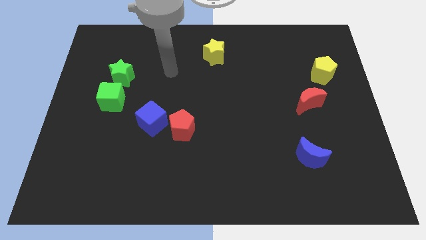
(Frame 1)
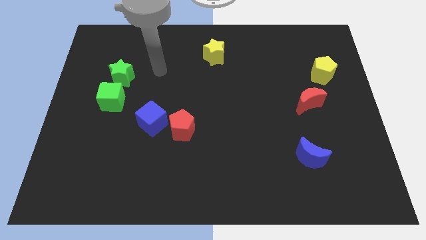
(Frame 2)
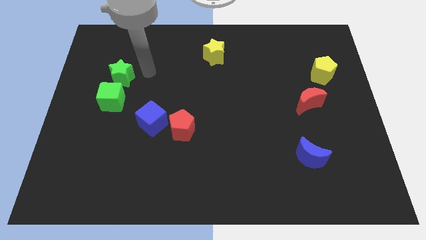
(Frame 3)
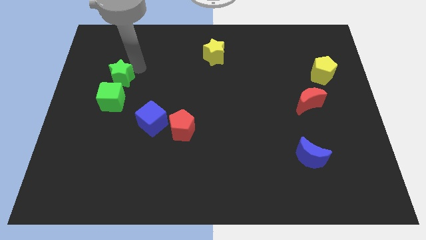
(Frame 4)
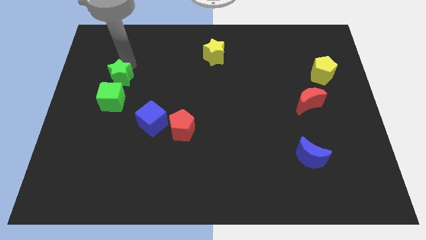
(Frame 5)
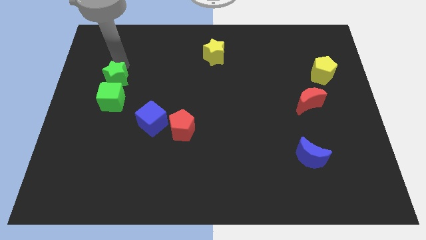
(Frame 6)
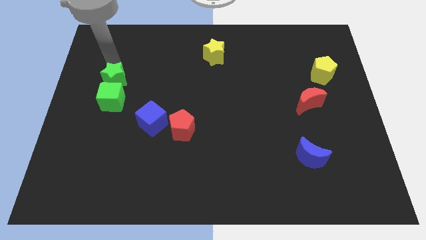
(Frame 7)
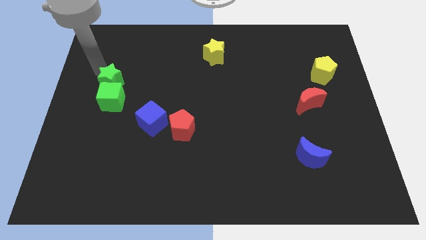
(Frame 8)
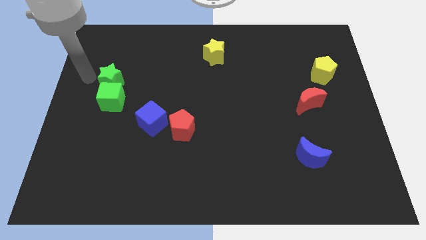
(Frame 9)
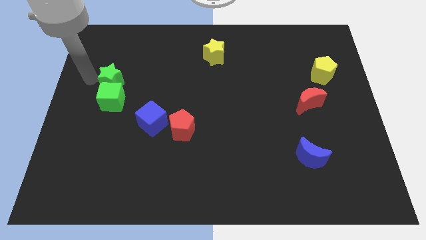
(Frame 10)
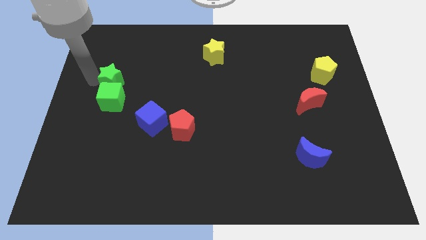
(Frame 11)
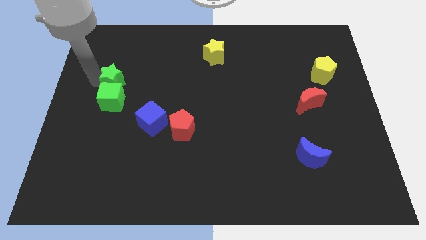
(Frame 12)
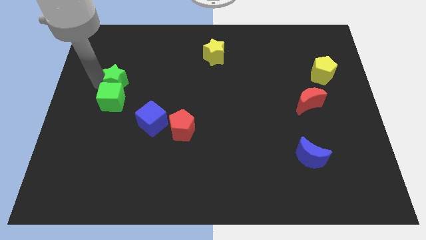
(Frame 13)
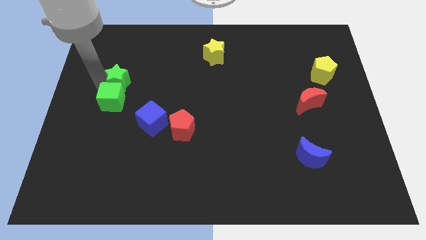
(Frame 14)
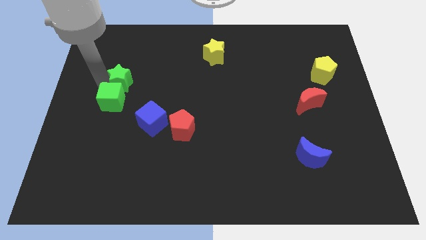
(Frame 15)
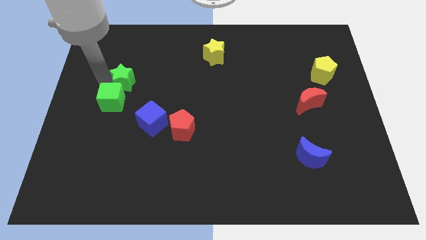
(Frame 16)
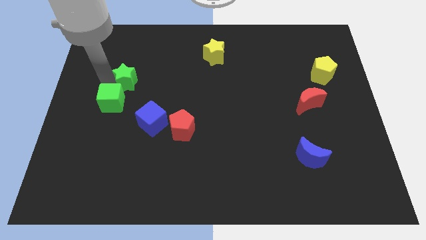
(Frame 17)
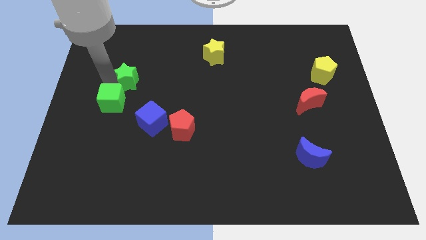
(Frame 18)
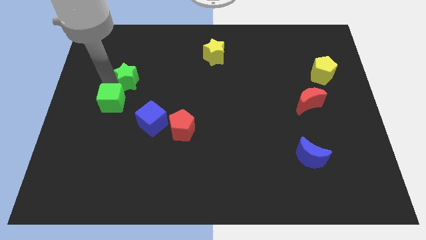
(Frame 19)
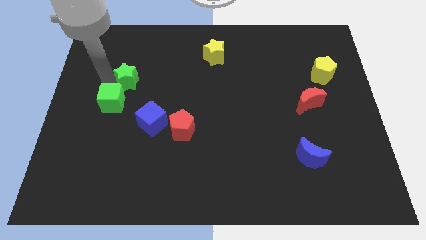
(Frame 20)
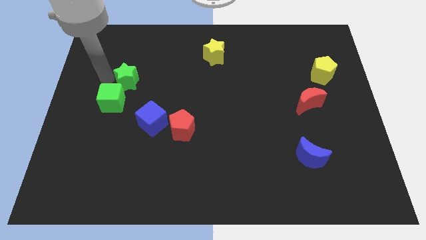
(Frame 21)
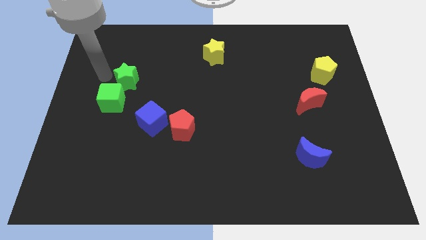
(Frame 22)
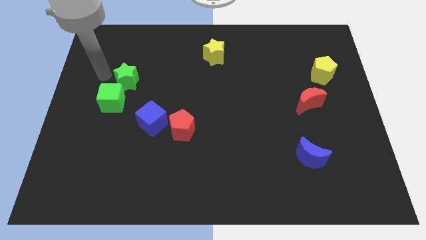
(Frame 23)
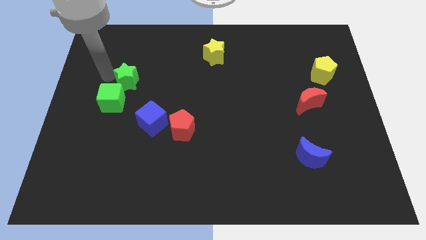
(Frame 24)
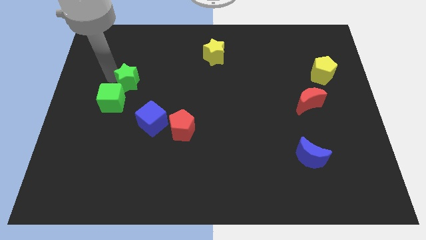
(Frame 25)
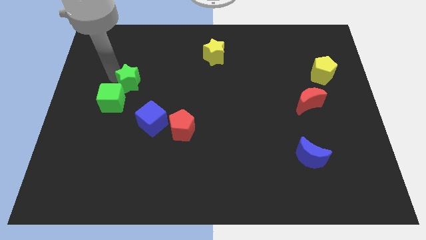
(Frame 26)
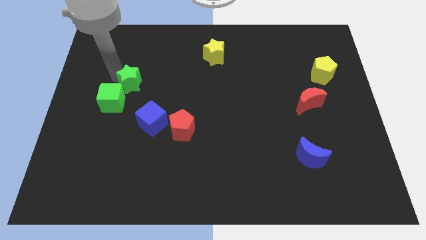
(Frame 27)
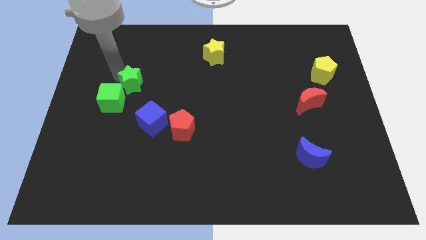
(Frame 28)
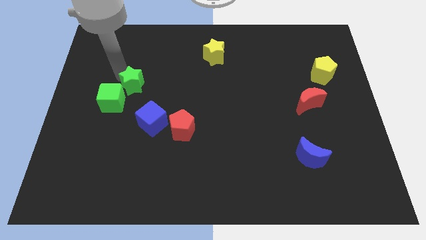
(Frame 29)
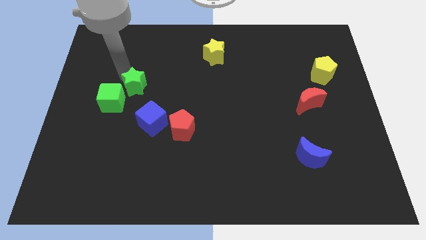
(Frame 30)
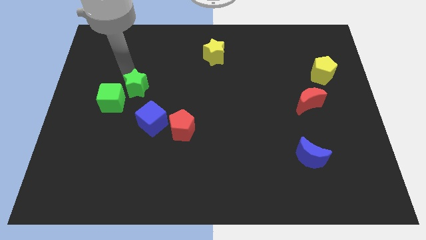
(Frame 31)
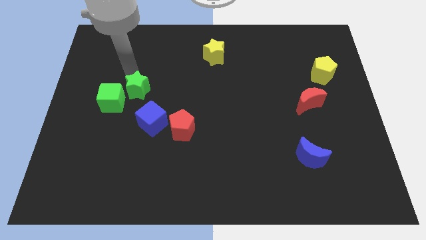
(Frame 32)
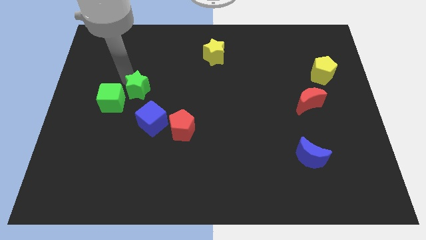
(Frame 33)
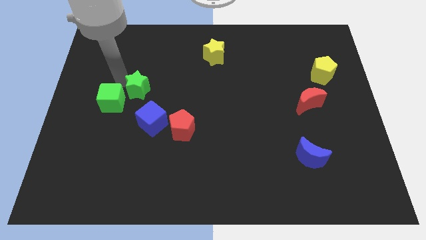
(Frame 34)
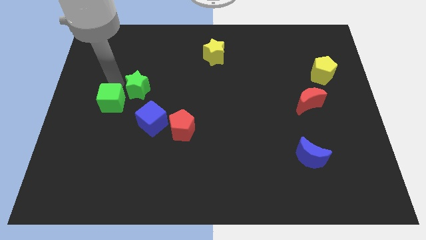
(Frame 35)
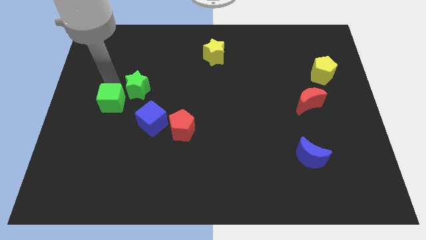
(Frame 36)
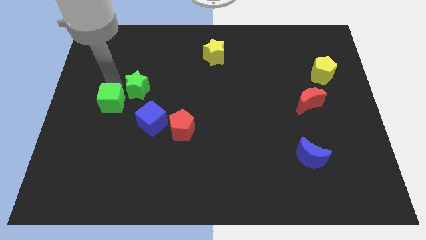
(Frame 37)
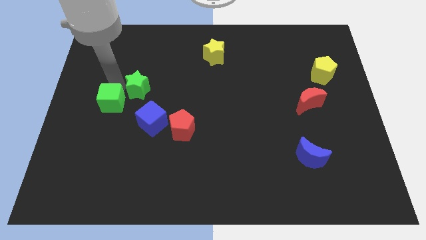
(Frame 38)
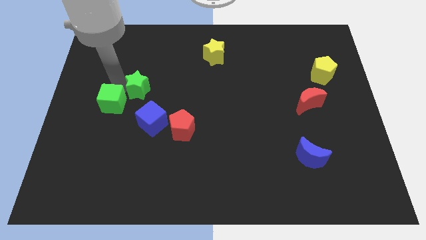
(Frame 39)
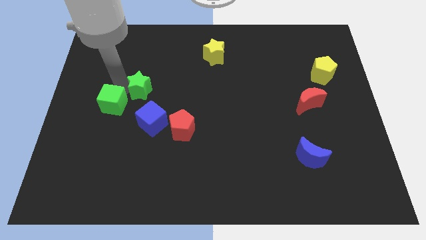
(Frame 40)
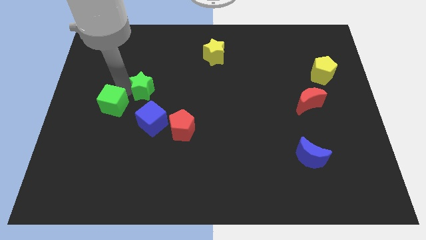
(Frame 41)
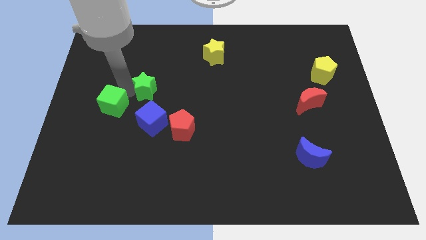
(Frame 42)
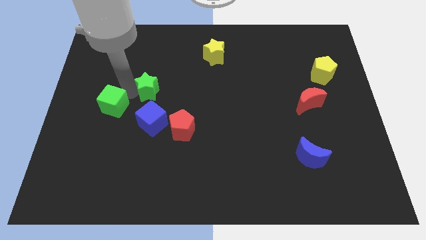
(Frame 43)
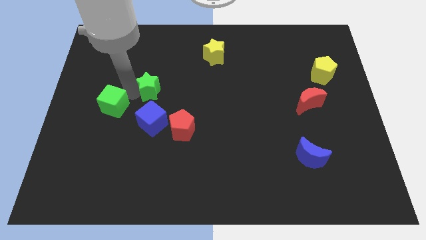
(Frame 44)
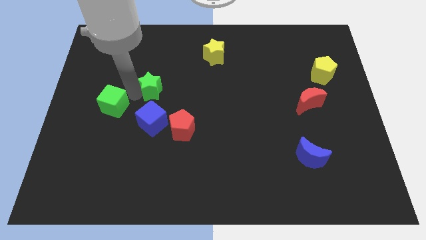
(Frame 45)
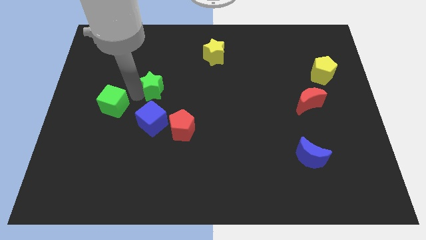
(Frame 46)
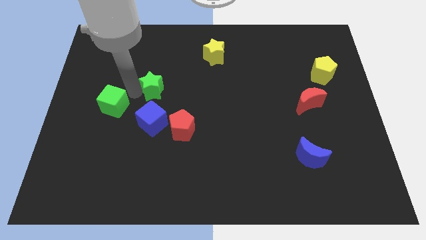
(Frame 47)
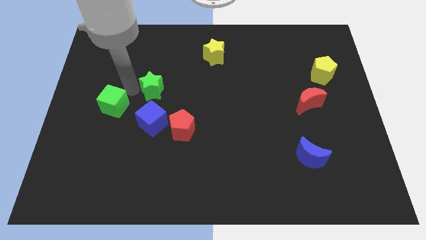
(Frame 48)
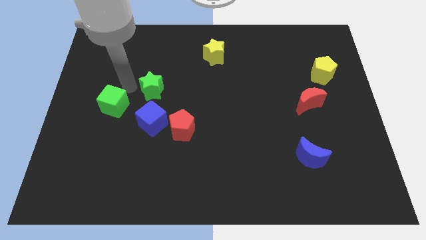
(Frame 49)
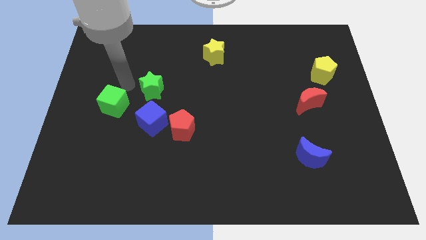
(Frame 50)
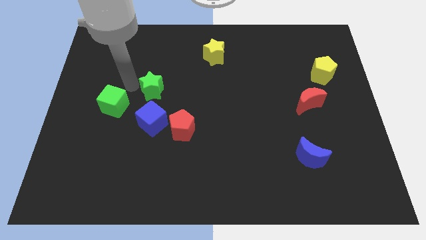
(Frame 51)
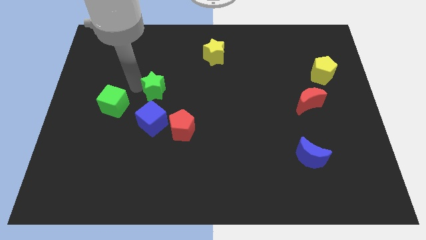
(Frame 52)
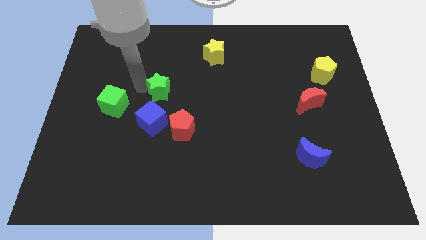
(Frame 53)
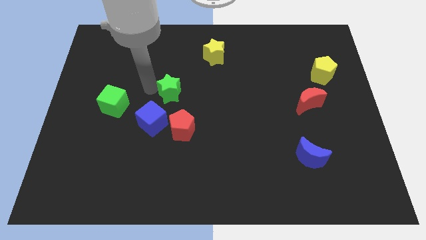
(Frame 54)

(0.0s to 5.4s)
put the green star to the center of the board

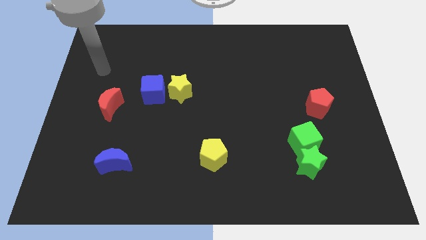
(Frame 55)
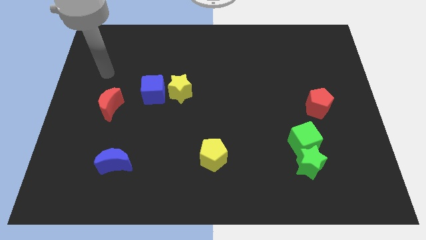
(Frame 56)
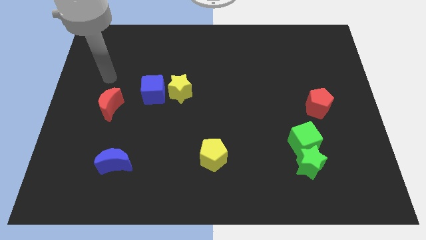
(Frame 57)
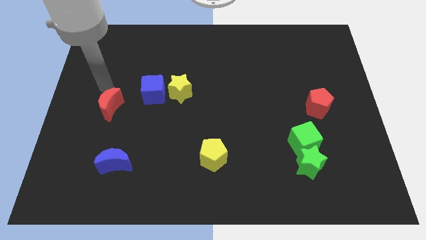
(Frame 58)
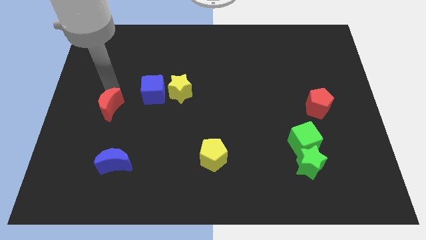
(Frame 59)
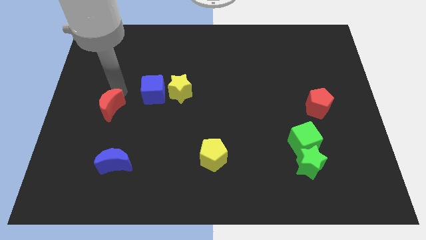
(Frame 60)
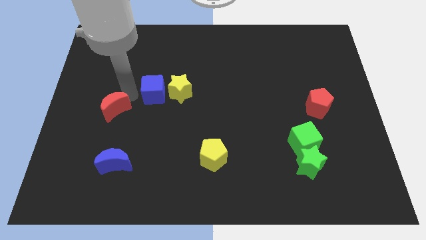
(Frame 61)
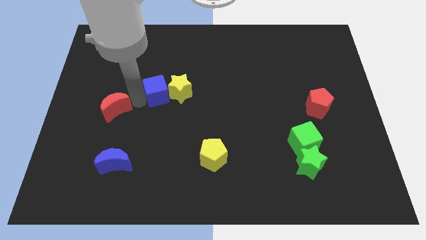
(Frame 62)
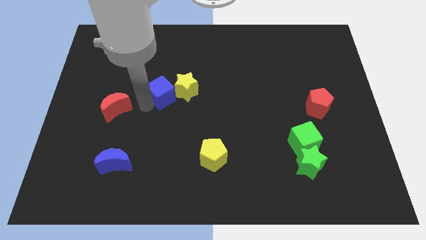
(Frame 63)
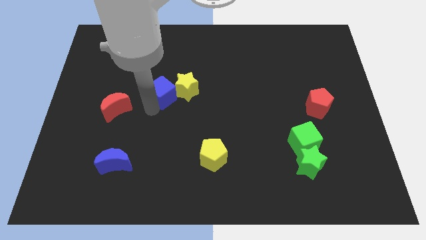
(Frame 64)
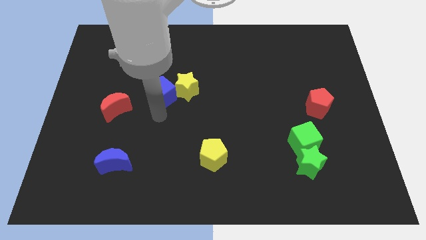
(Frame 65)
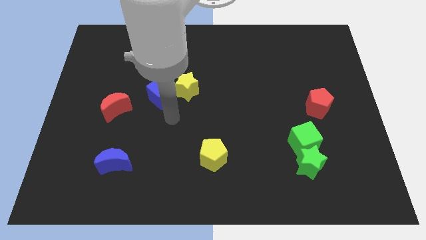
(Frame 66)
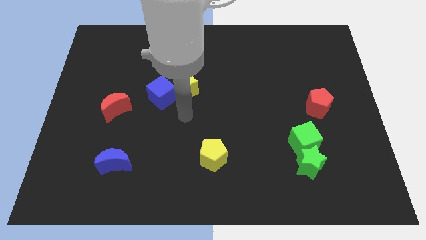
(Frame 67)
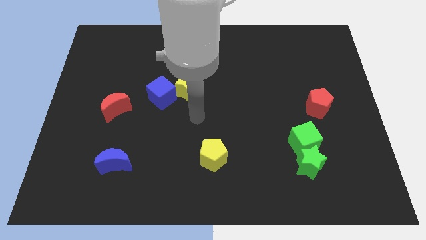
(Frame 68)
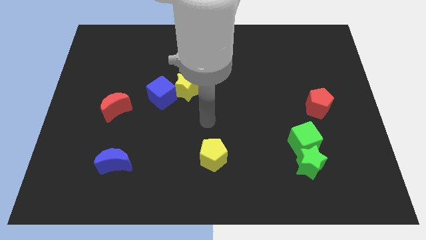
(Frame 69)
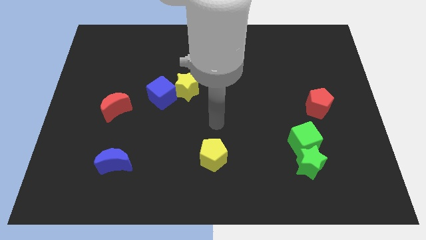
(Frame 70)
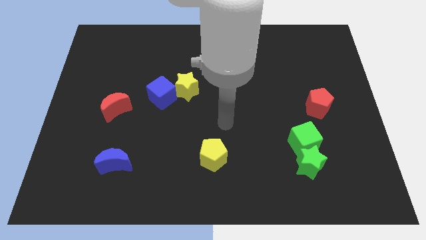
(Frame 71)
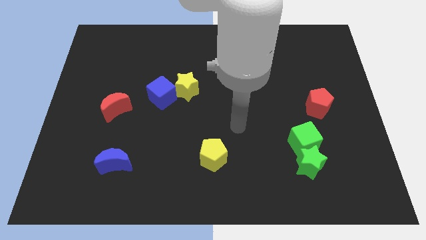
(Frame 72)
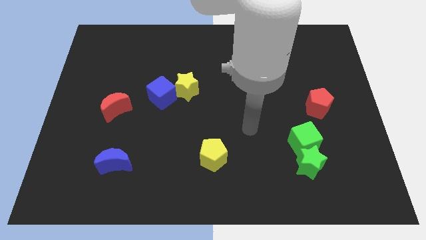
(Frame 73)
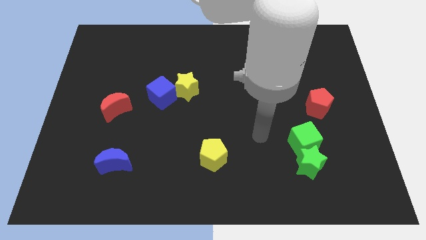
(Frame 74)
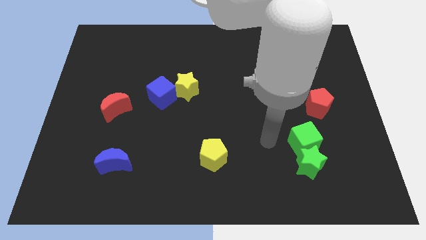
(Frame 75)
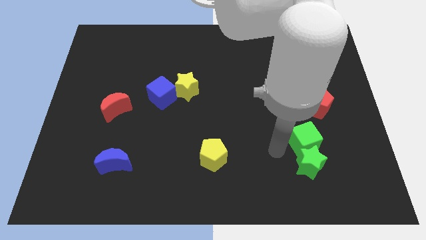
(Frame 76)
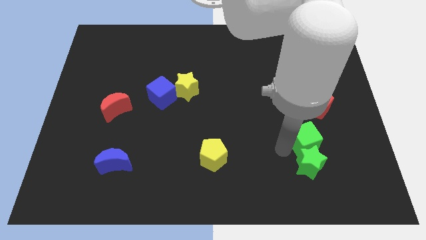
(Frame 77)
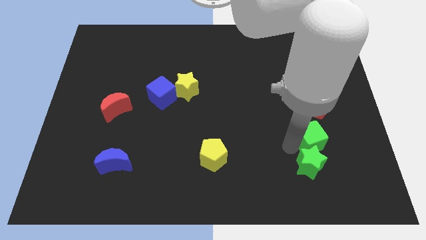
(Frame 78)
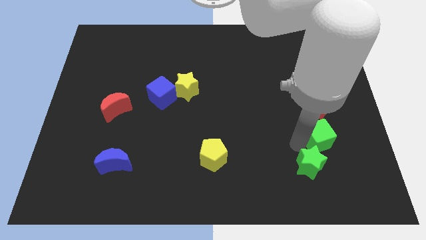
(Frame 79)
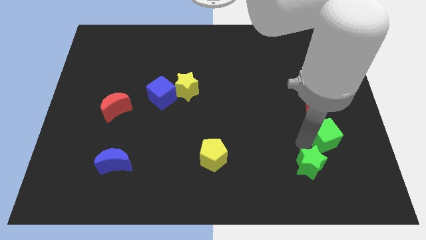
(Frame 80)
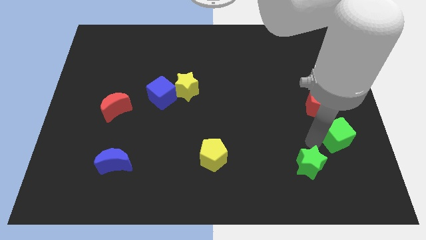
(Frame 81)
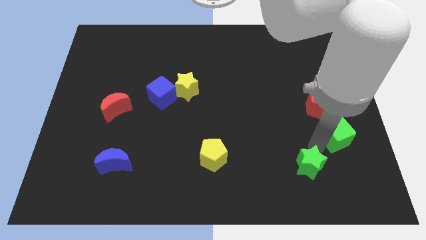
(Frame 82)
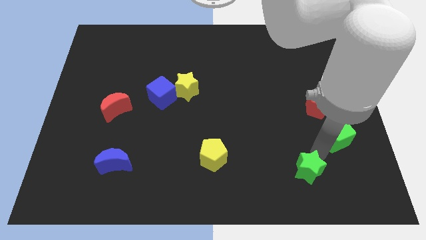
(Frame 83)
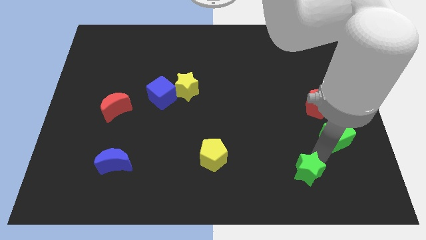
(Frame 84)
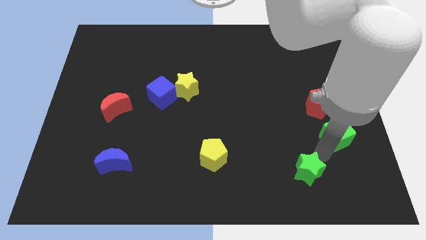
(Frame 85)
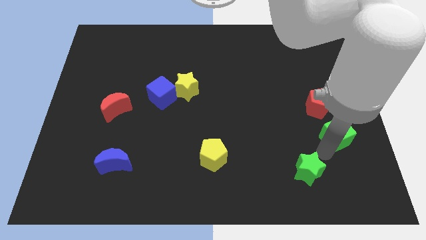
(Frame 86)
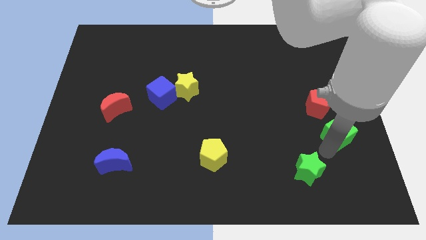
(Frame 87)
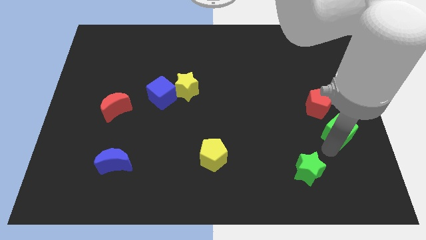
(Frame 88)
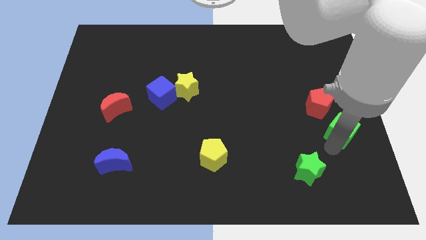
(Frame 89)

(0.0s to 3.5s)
slide the green cube to the center right
